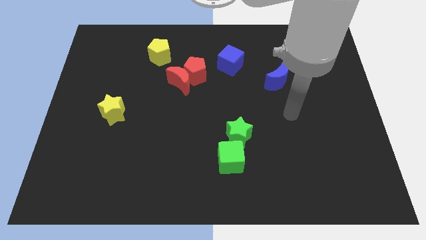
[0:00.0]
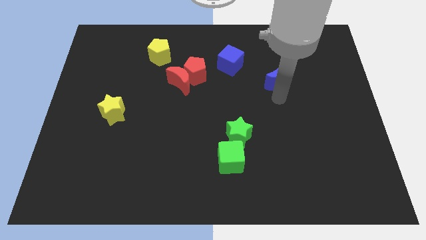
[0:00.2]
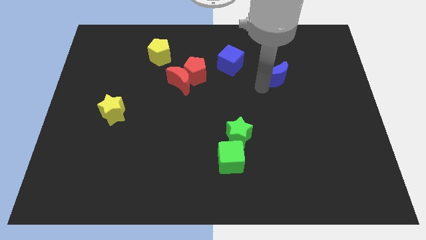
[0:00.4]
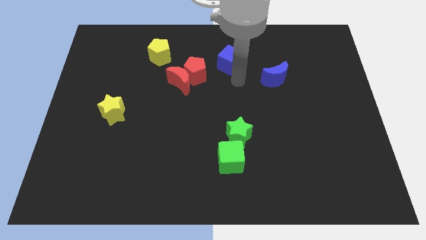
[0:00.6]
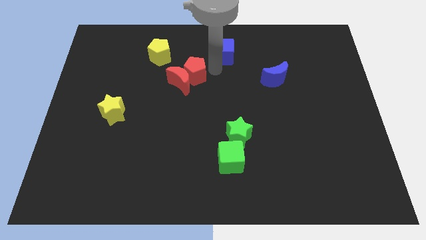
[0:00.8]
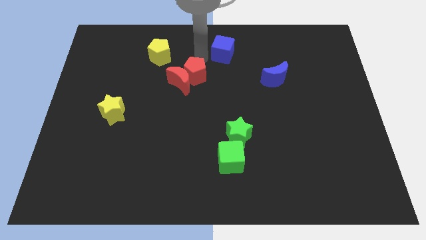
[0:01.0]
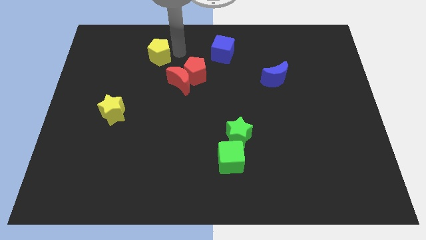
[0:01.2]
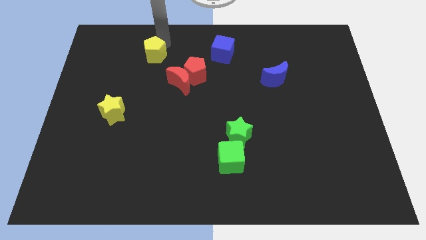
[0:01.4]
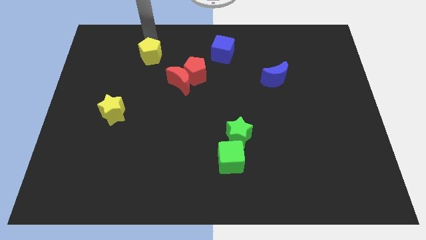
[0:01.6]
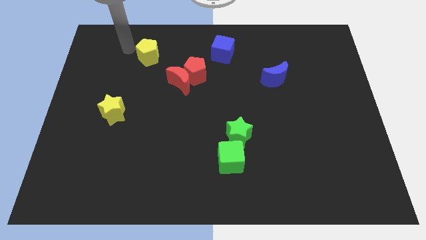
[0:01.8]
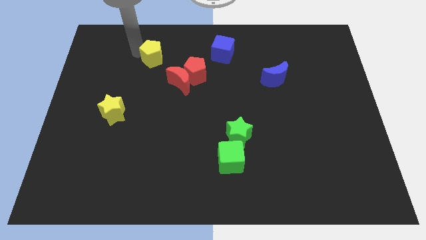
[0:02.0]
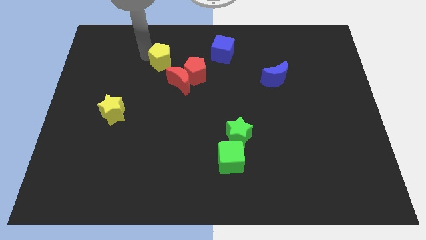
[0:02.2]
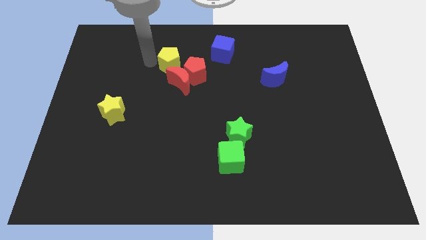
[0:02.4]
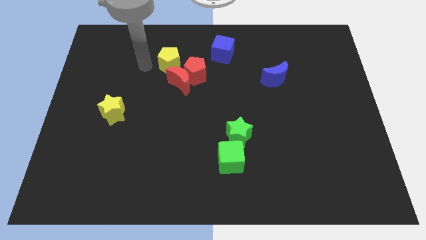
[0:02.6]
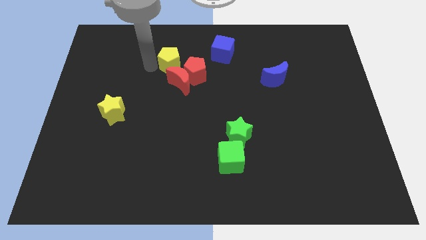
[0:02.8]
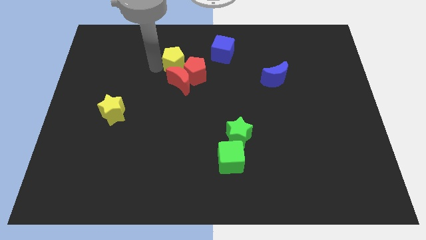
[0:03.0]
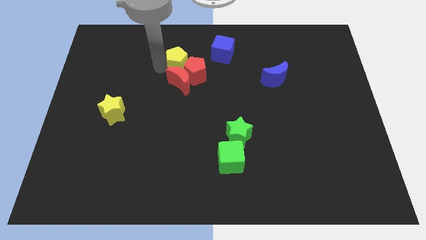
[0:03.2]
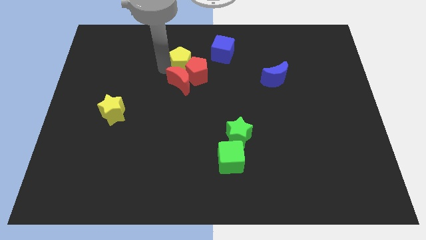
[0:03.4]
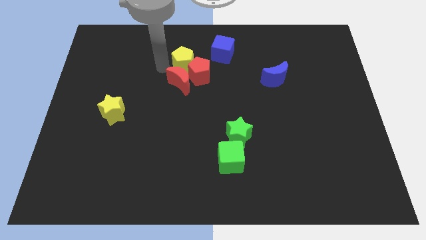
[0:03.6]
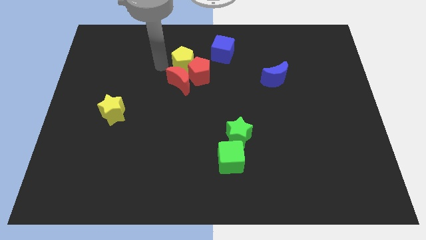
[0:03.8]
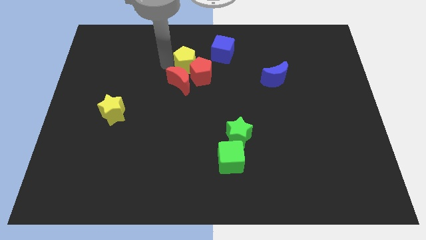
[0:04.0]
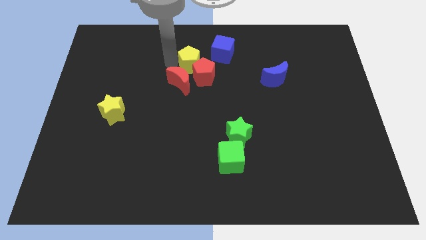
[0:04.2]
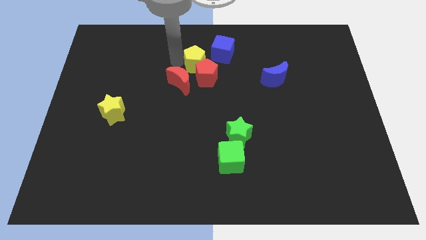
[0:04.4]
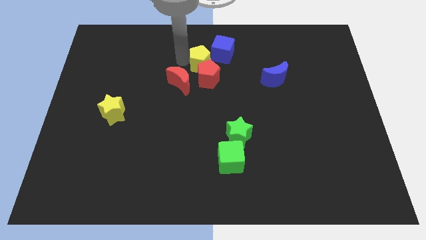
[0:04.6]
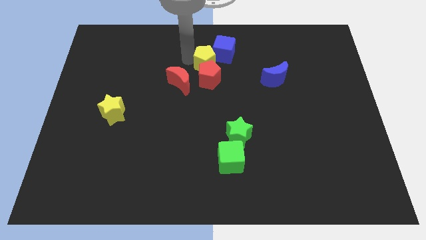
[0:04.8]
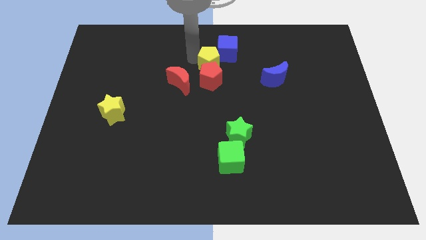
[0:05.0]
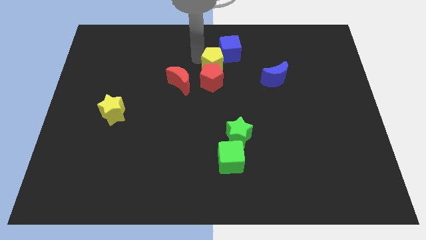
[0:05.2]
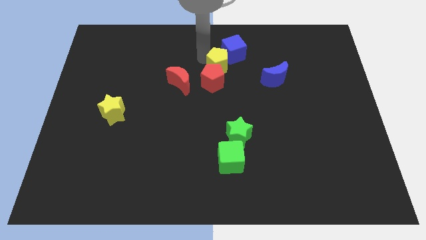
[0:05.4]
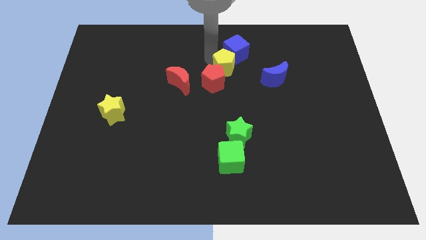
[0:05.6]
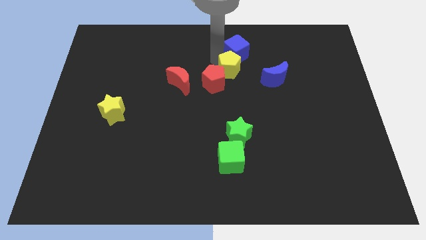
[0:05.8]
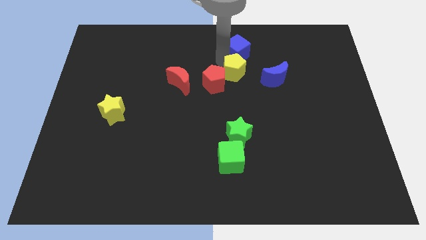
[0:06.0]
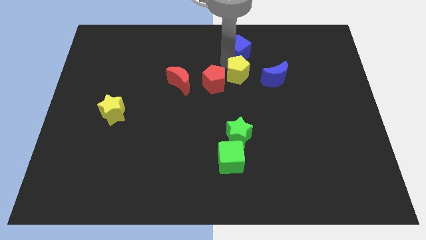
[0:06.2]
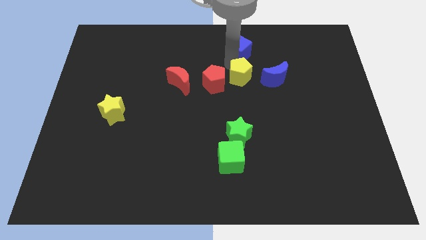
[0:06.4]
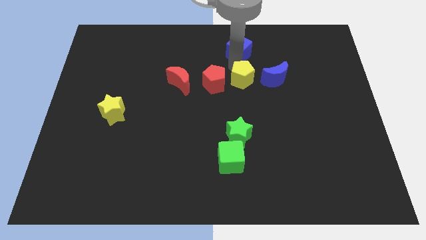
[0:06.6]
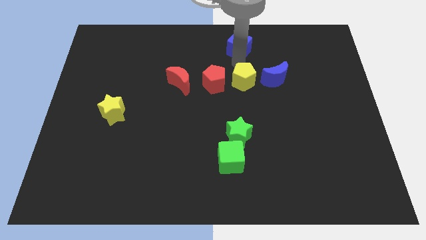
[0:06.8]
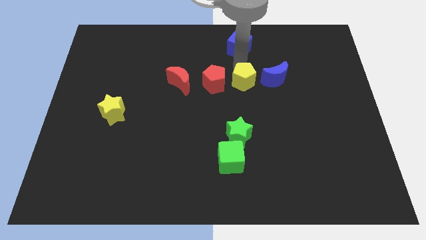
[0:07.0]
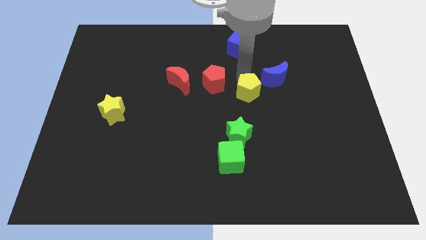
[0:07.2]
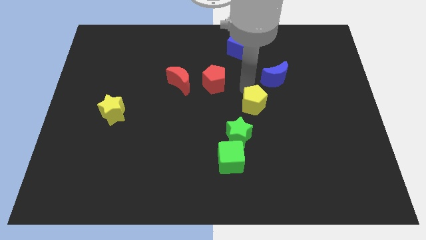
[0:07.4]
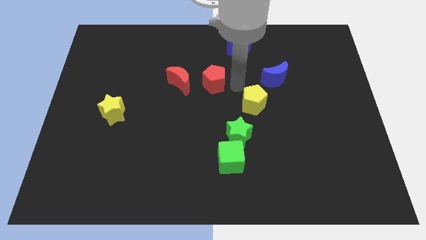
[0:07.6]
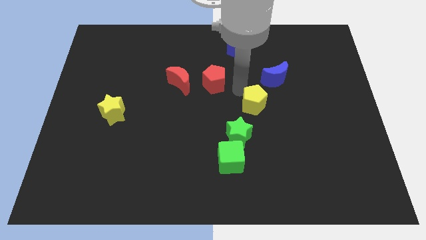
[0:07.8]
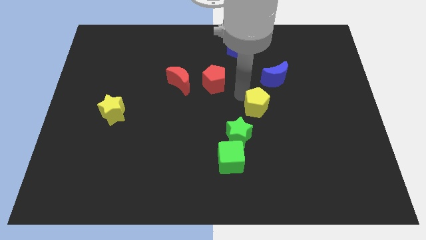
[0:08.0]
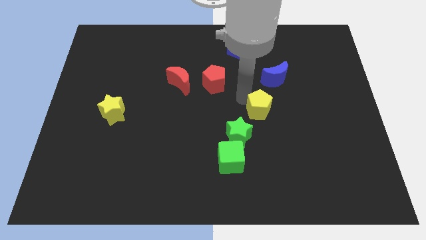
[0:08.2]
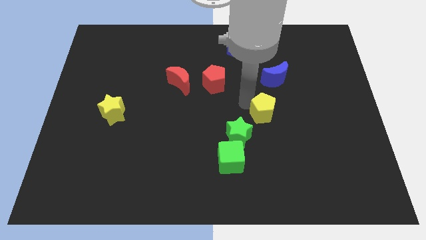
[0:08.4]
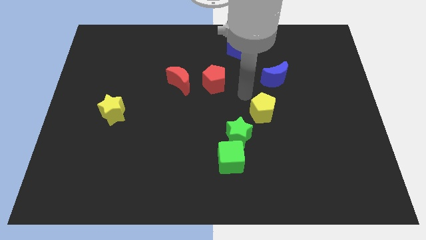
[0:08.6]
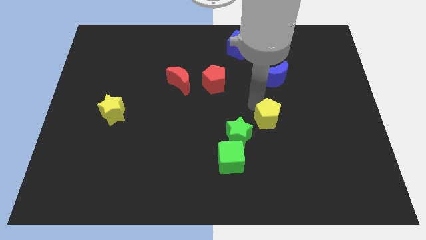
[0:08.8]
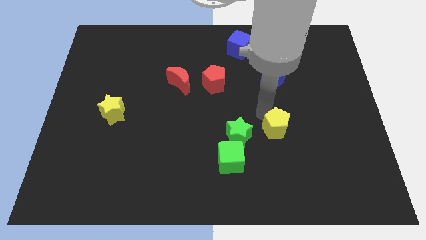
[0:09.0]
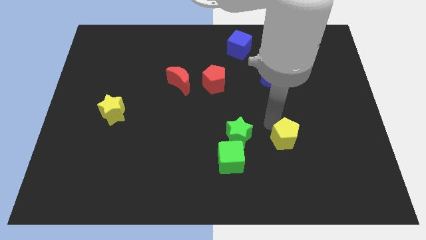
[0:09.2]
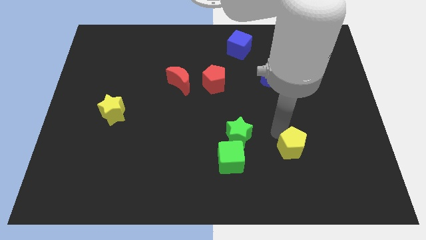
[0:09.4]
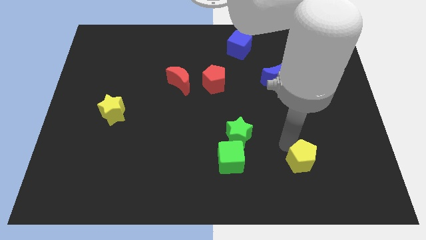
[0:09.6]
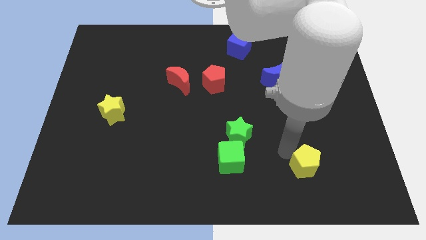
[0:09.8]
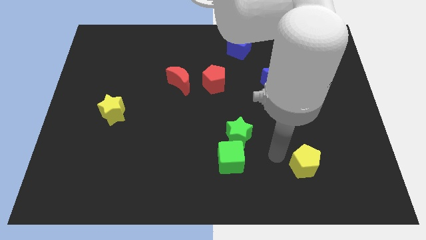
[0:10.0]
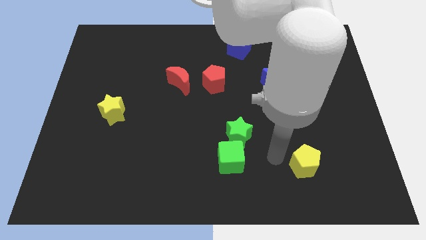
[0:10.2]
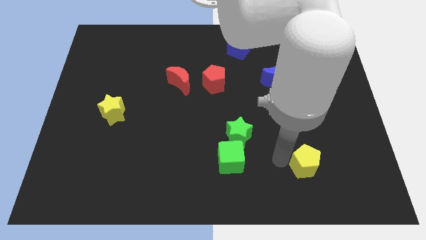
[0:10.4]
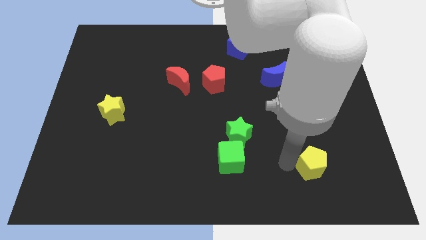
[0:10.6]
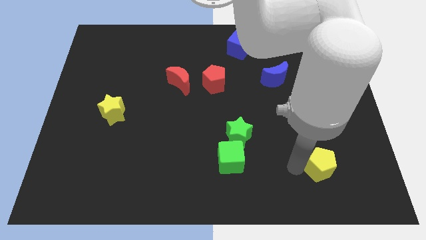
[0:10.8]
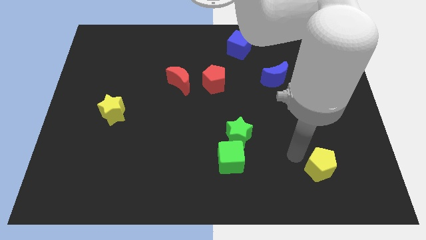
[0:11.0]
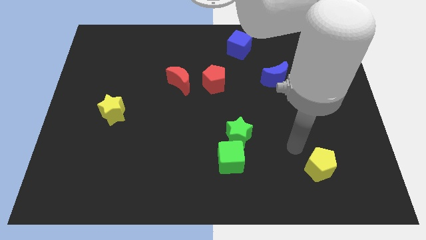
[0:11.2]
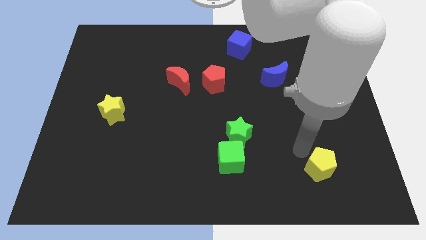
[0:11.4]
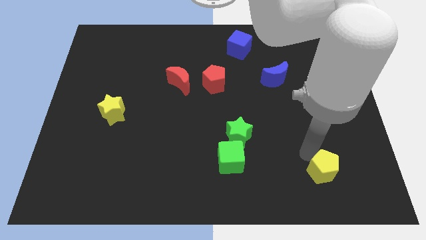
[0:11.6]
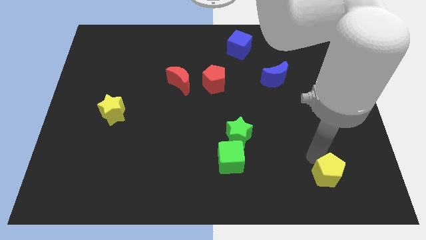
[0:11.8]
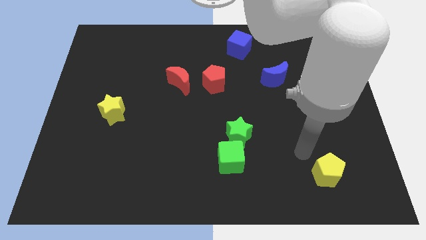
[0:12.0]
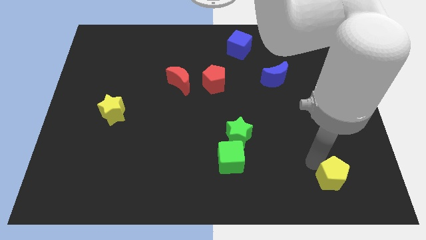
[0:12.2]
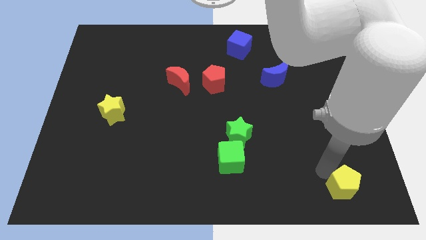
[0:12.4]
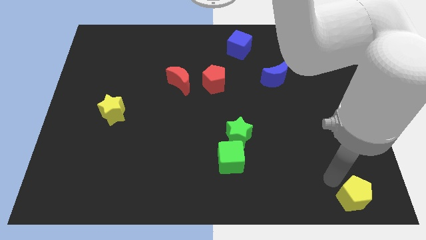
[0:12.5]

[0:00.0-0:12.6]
slide the yellow pentagon to the bottom right corner
